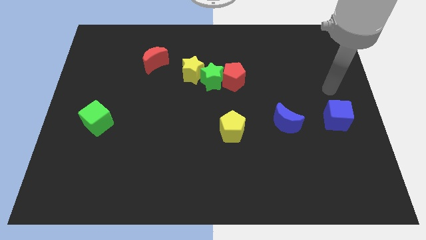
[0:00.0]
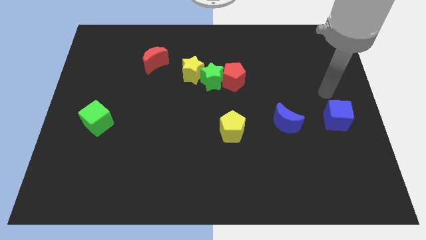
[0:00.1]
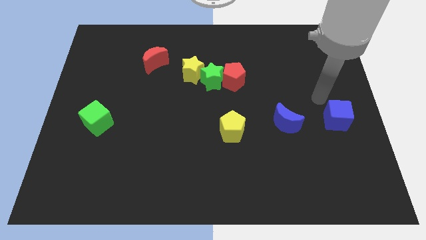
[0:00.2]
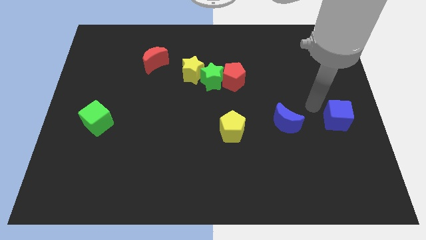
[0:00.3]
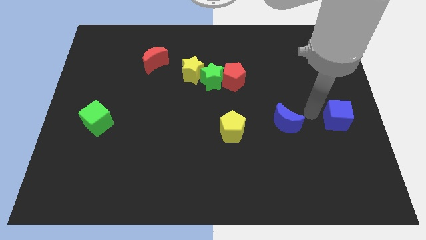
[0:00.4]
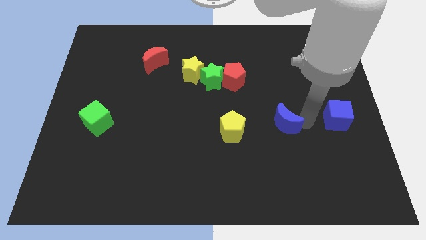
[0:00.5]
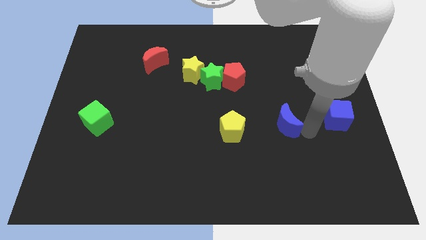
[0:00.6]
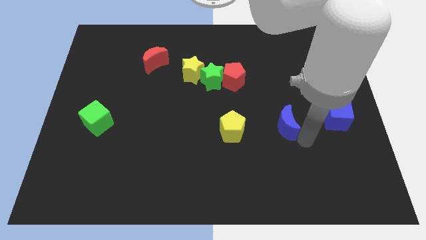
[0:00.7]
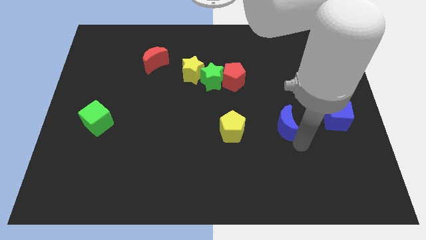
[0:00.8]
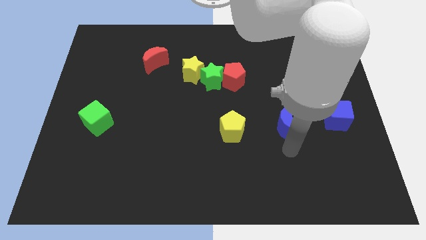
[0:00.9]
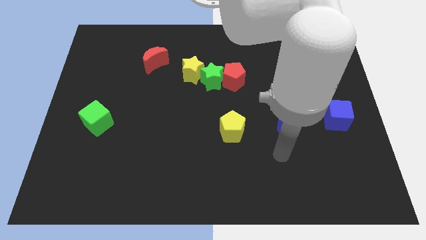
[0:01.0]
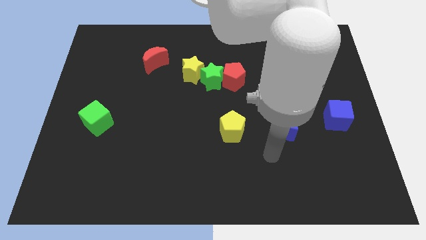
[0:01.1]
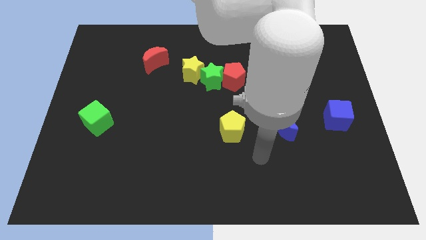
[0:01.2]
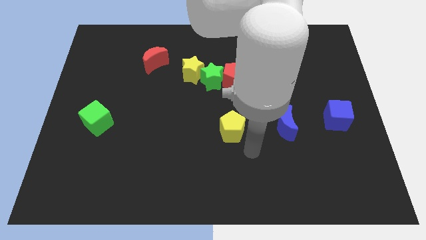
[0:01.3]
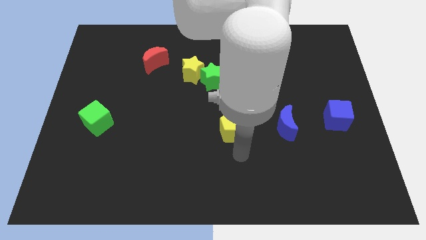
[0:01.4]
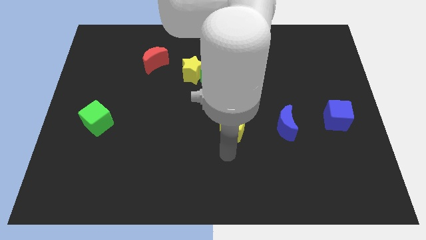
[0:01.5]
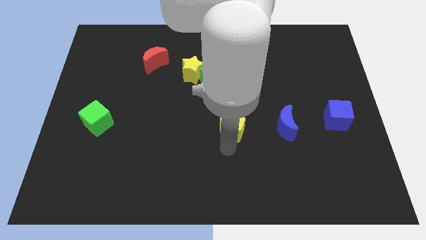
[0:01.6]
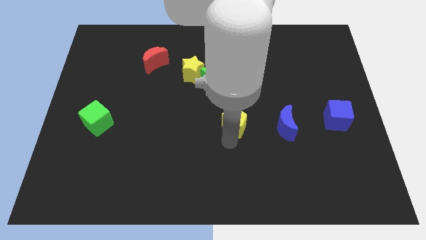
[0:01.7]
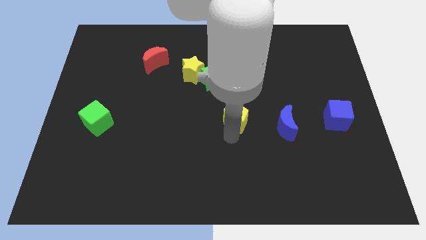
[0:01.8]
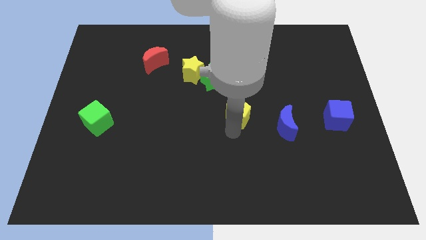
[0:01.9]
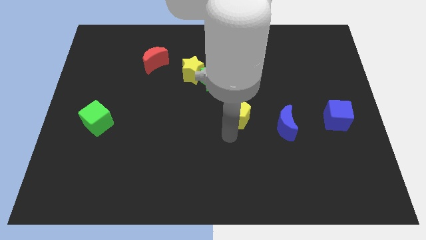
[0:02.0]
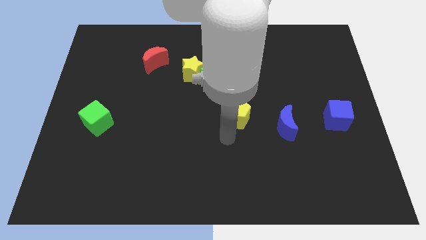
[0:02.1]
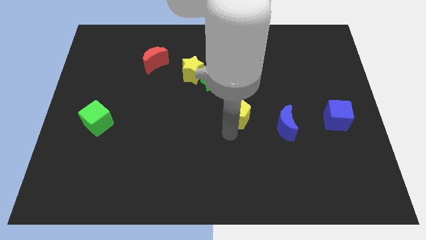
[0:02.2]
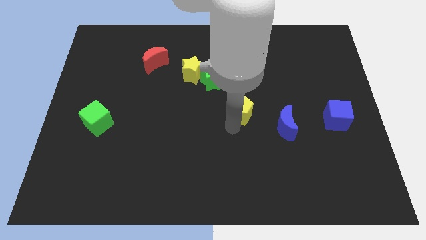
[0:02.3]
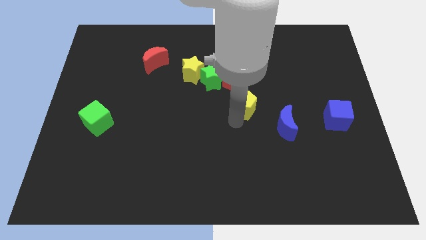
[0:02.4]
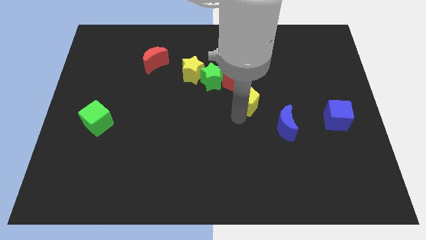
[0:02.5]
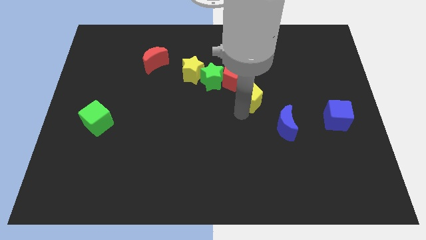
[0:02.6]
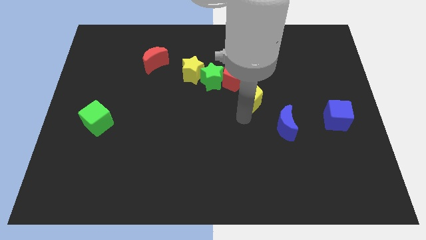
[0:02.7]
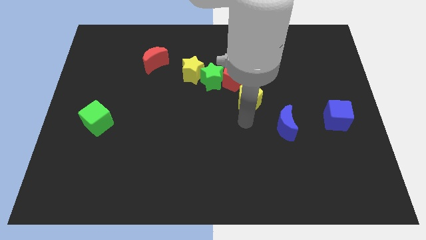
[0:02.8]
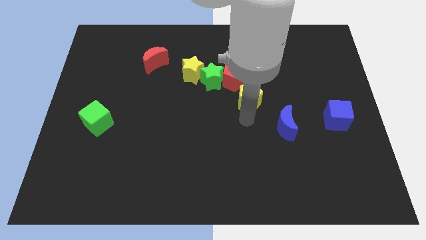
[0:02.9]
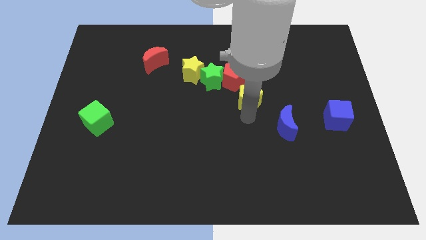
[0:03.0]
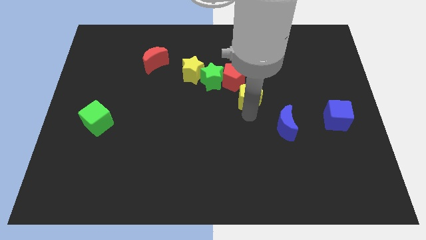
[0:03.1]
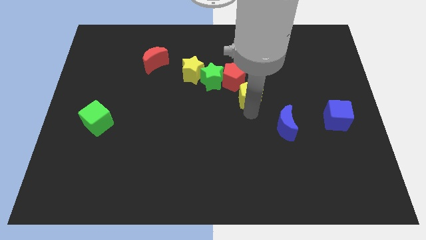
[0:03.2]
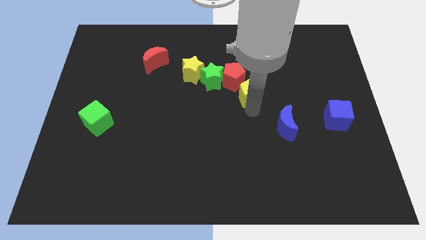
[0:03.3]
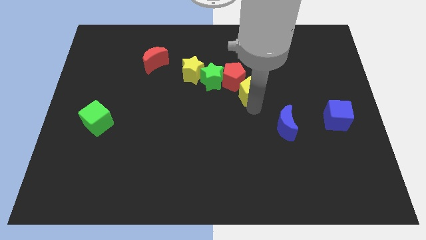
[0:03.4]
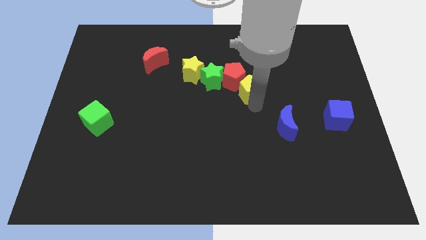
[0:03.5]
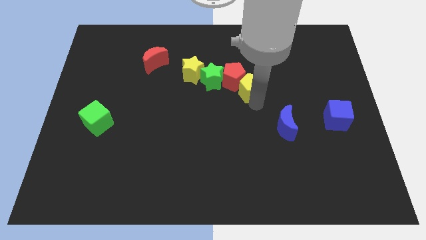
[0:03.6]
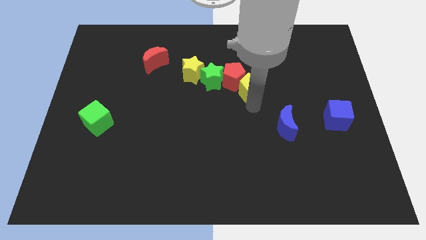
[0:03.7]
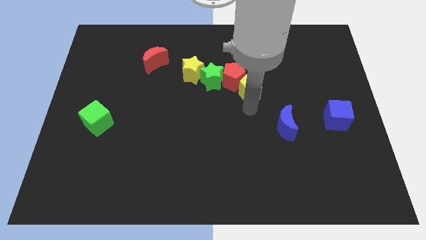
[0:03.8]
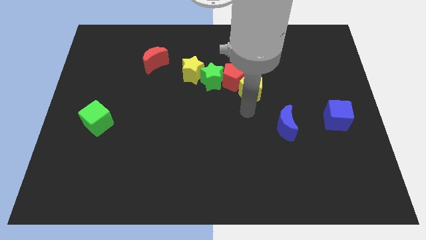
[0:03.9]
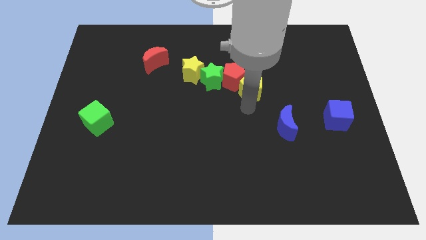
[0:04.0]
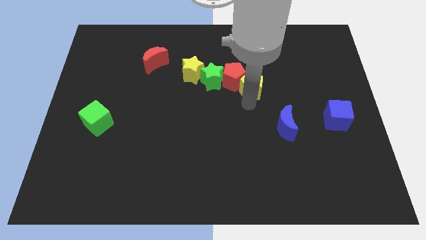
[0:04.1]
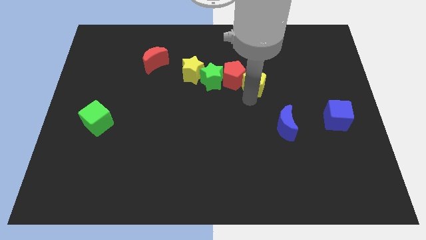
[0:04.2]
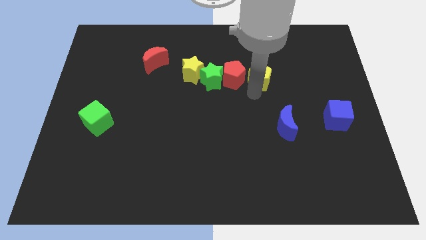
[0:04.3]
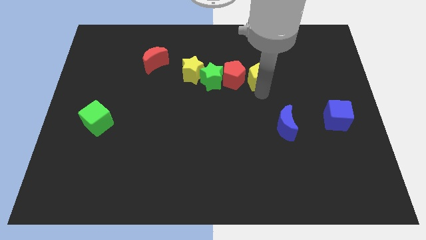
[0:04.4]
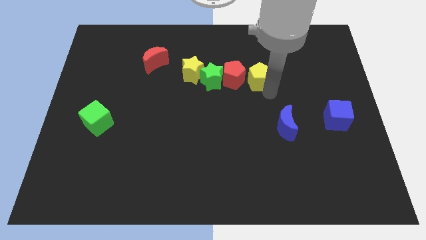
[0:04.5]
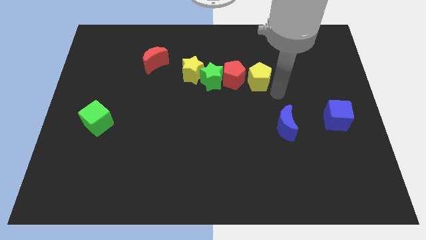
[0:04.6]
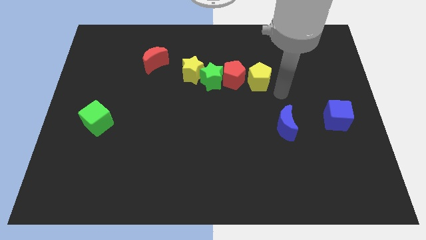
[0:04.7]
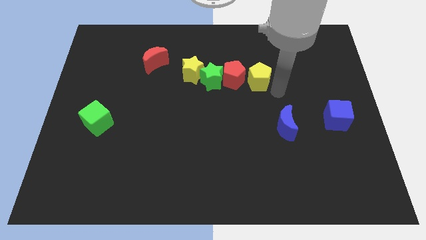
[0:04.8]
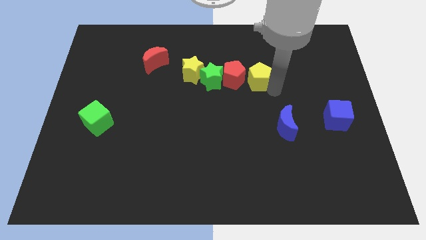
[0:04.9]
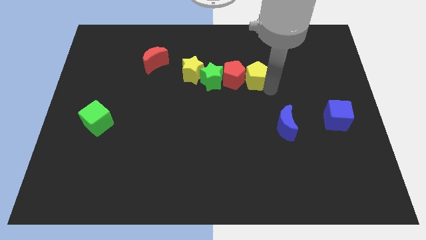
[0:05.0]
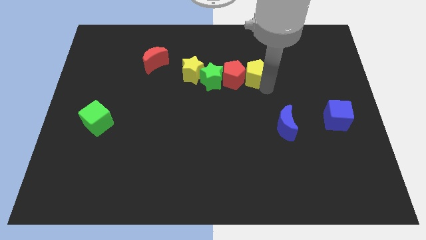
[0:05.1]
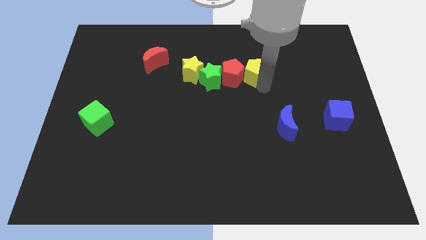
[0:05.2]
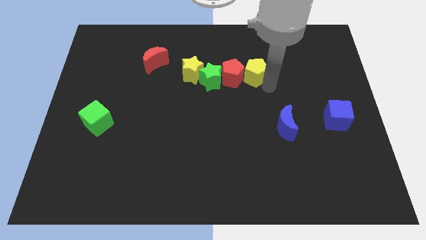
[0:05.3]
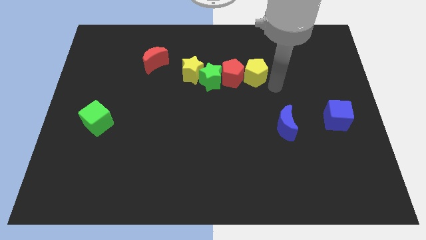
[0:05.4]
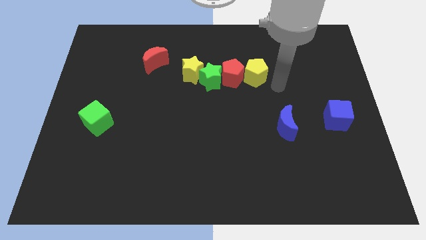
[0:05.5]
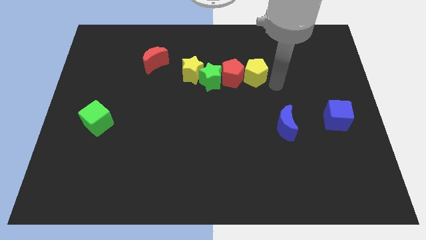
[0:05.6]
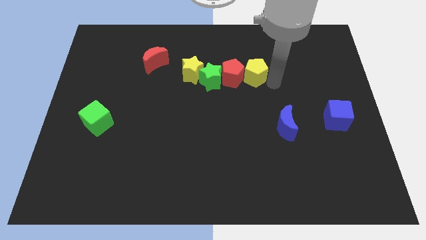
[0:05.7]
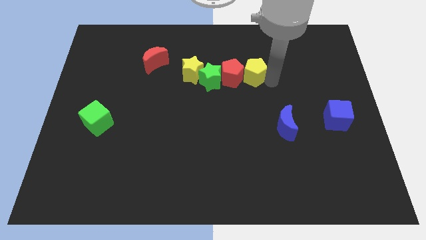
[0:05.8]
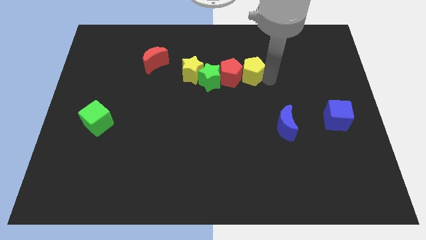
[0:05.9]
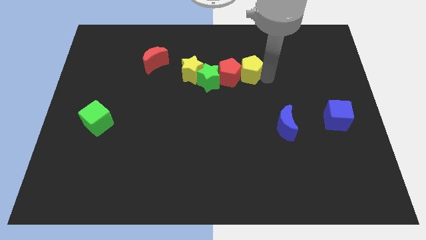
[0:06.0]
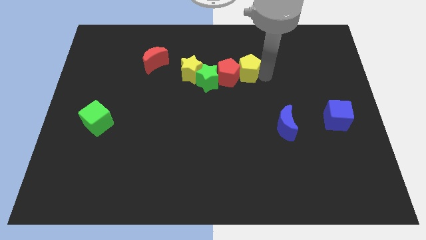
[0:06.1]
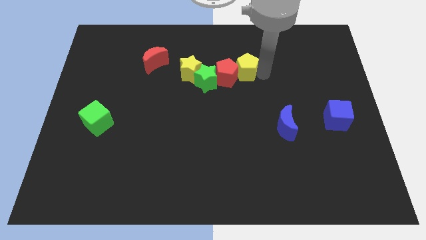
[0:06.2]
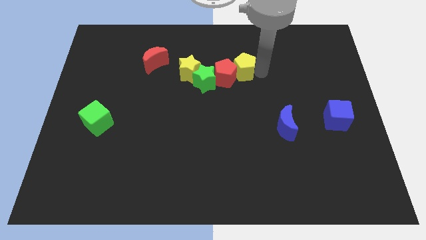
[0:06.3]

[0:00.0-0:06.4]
move the yellow pentagon to the top right side of the green star

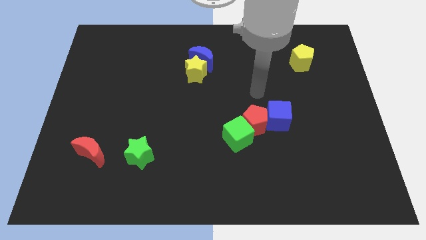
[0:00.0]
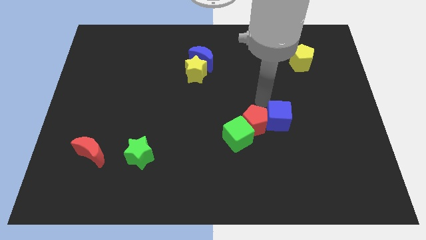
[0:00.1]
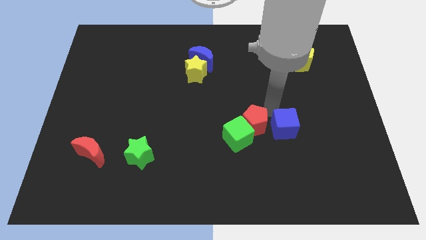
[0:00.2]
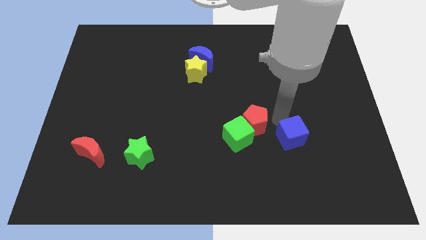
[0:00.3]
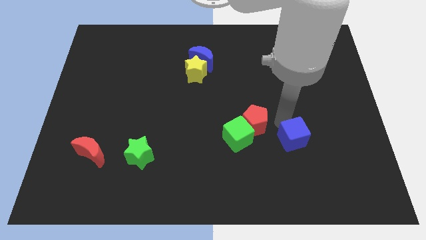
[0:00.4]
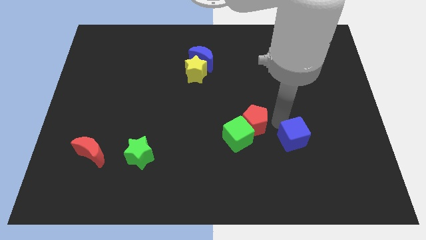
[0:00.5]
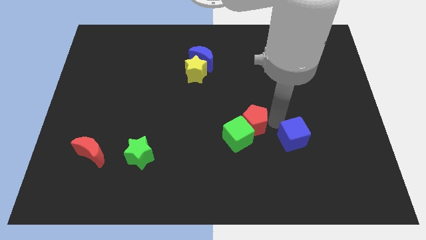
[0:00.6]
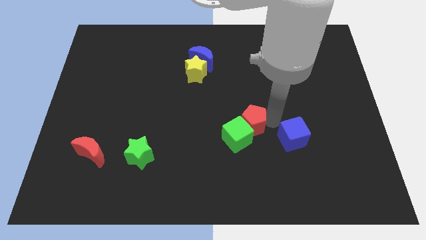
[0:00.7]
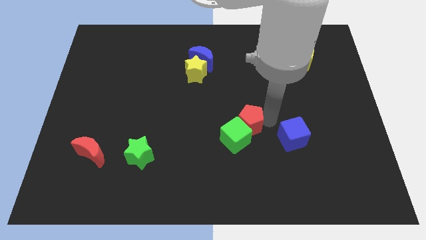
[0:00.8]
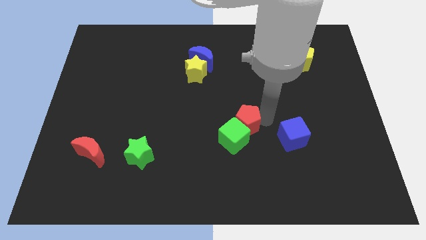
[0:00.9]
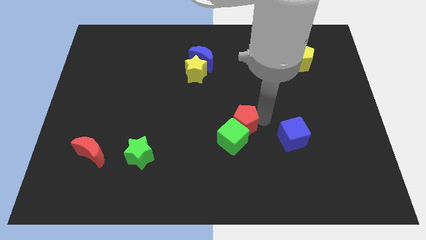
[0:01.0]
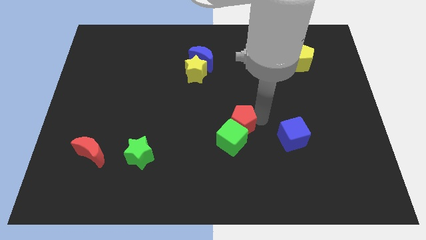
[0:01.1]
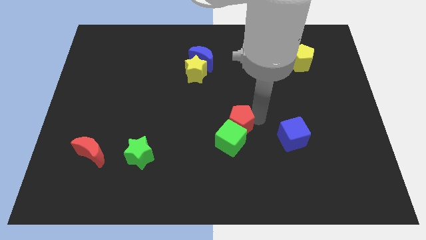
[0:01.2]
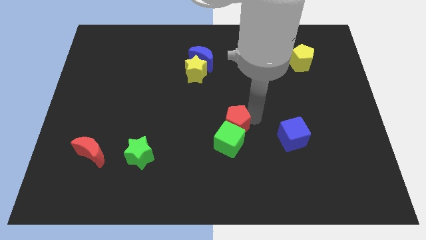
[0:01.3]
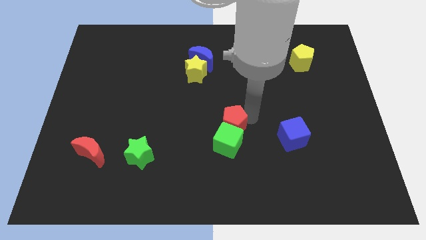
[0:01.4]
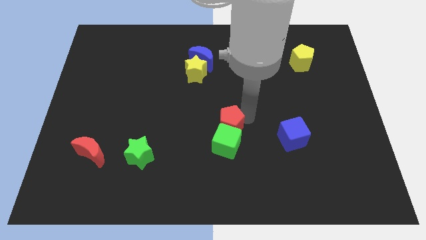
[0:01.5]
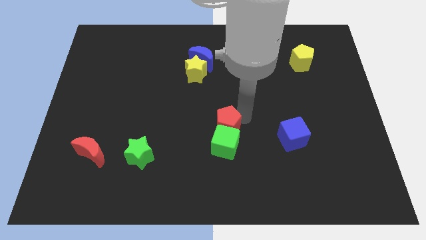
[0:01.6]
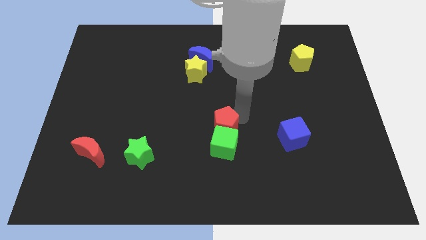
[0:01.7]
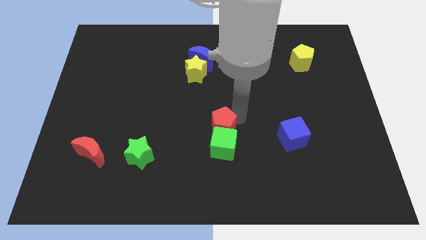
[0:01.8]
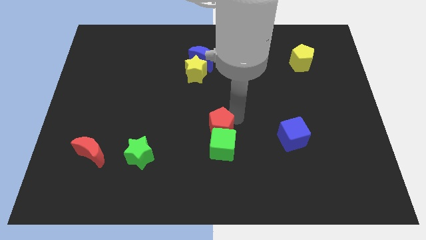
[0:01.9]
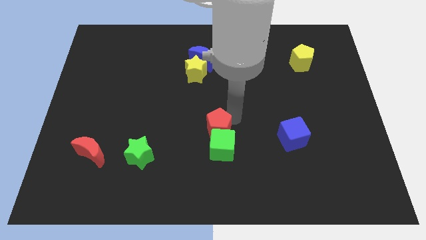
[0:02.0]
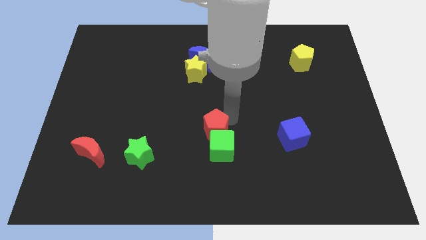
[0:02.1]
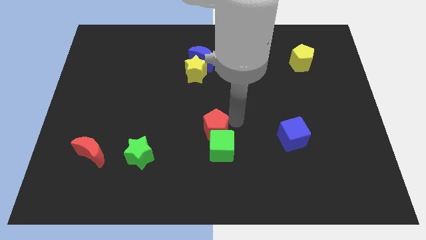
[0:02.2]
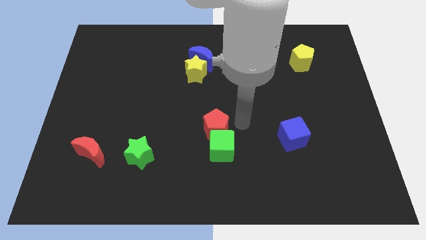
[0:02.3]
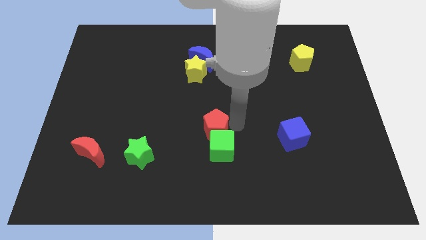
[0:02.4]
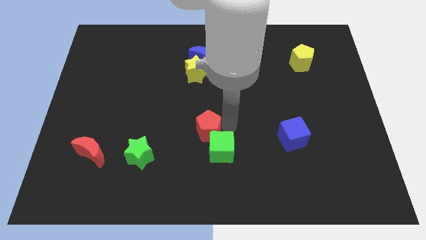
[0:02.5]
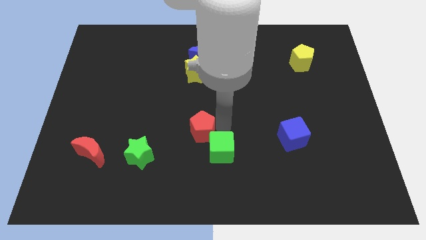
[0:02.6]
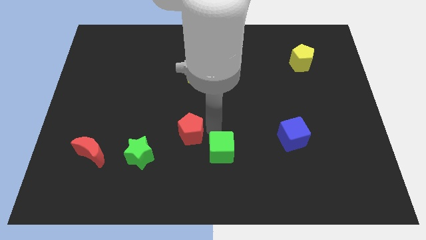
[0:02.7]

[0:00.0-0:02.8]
move the red pentagon to the top right side of the green star
